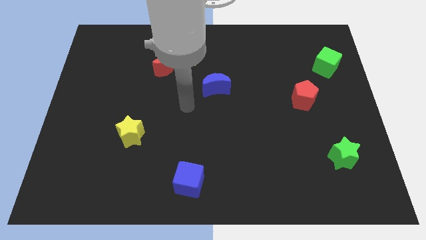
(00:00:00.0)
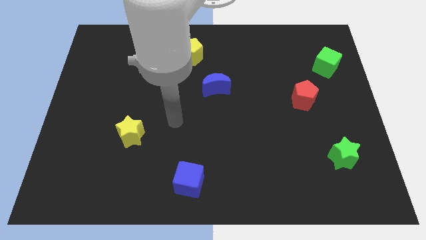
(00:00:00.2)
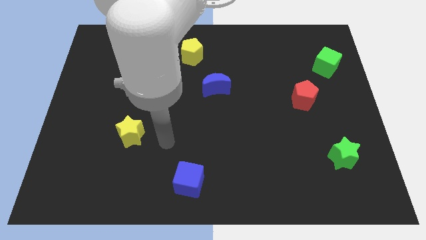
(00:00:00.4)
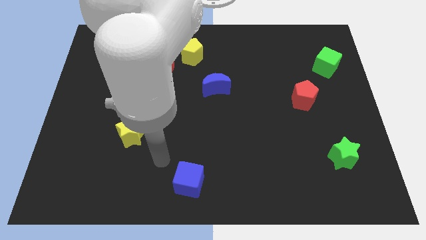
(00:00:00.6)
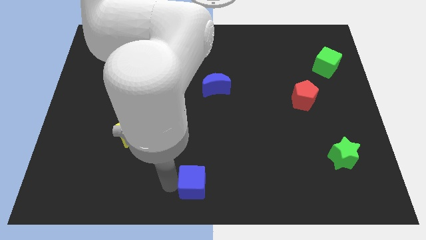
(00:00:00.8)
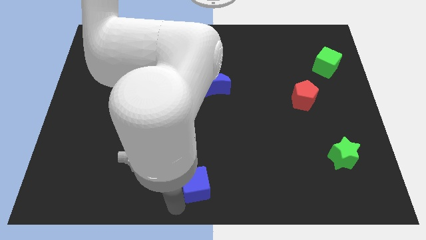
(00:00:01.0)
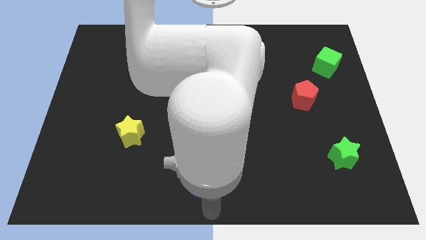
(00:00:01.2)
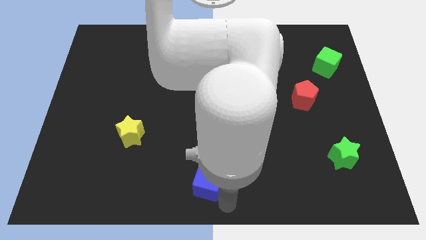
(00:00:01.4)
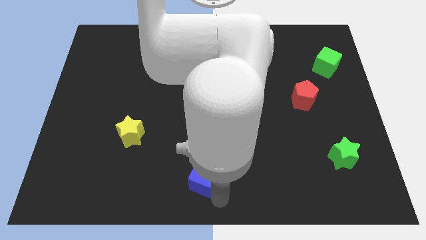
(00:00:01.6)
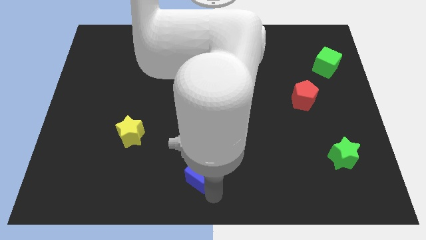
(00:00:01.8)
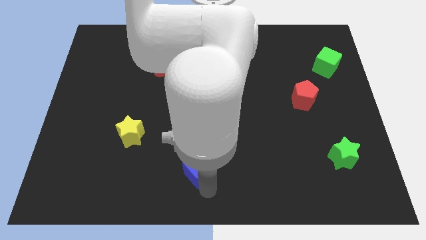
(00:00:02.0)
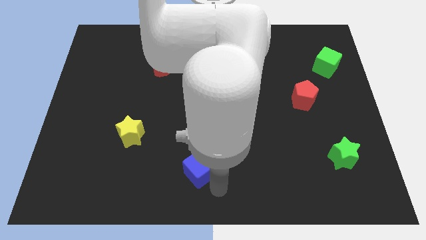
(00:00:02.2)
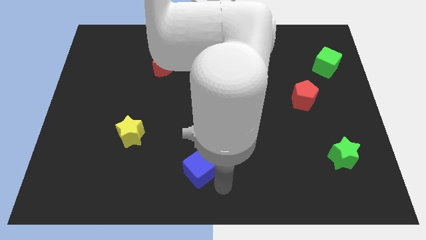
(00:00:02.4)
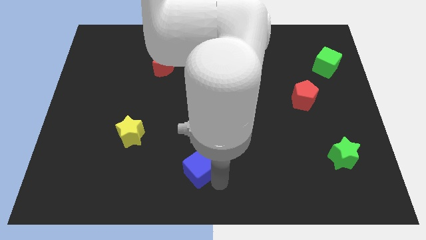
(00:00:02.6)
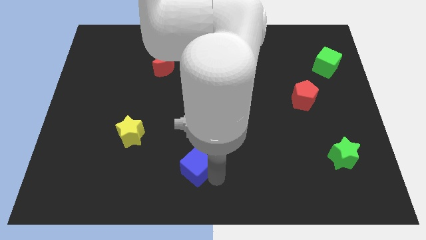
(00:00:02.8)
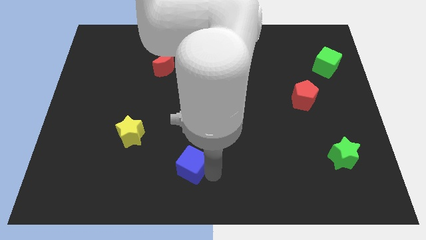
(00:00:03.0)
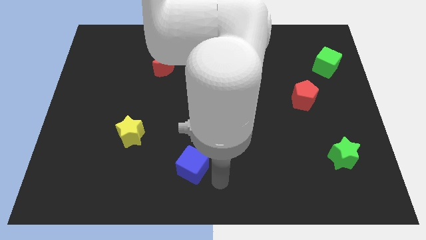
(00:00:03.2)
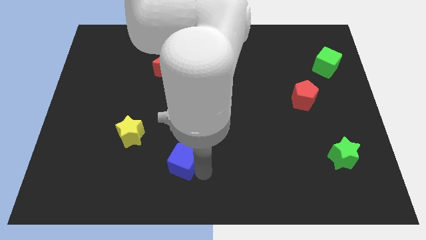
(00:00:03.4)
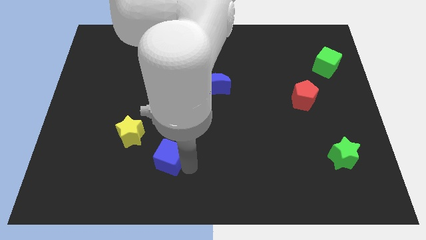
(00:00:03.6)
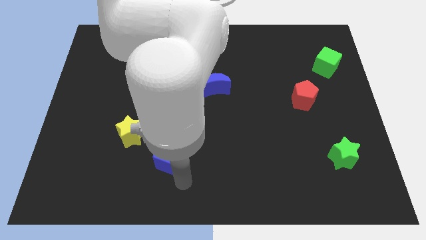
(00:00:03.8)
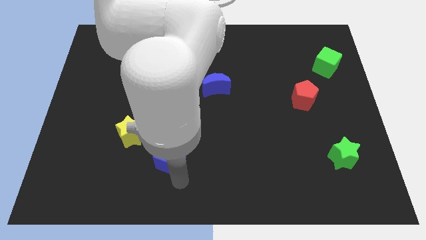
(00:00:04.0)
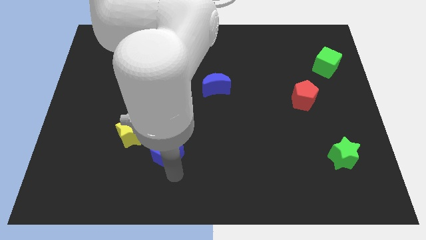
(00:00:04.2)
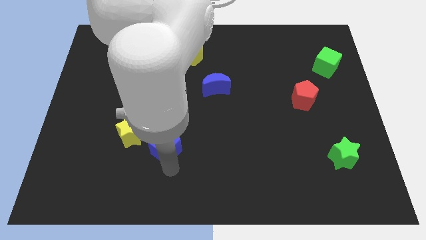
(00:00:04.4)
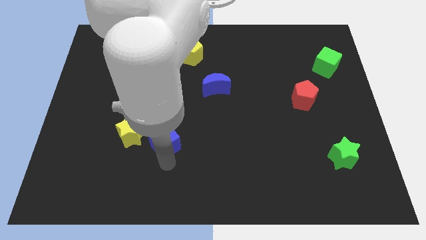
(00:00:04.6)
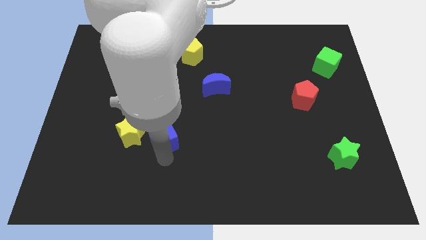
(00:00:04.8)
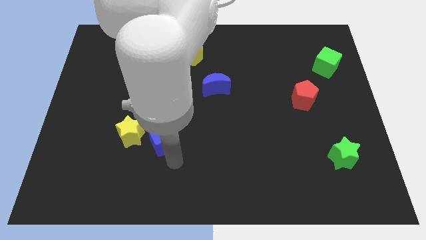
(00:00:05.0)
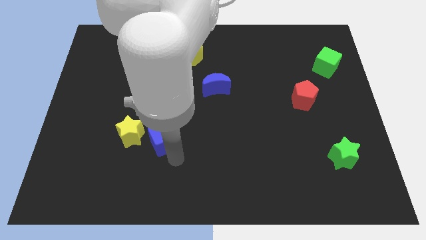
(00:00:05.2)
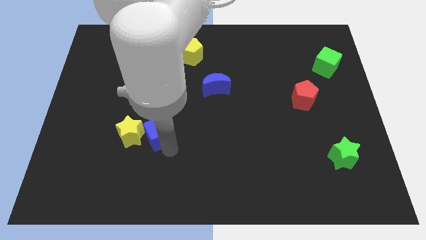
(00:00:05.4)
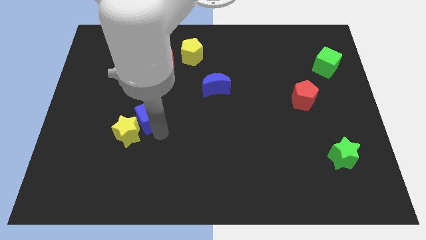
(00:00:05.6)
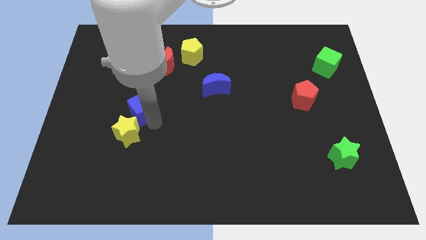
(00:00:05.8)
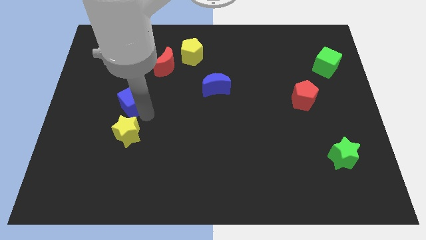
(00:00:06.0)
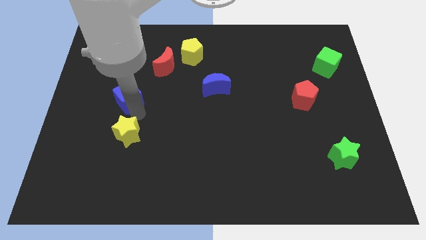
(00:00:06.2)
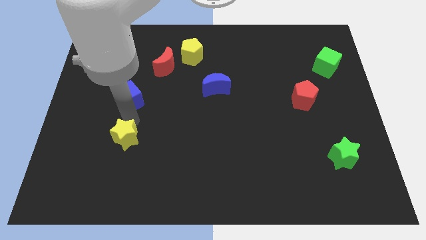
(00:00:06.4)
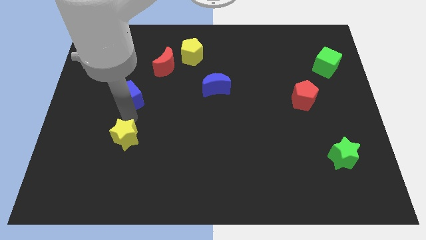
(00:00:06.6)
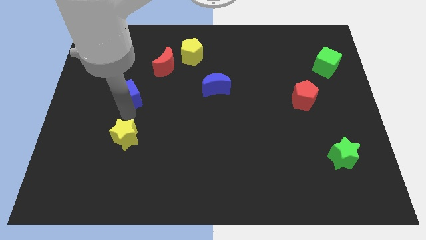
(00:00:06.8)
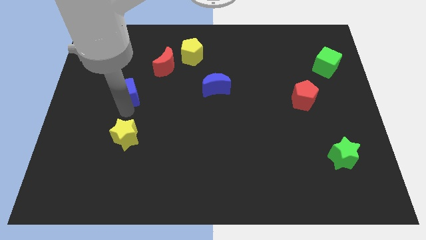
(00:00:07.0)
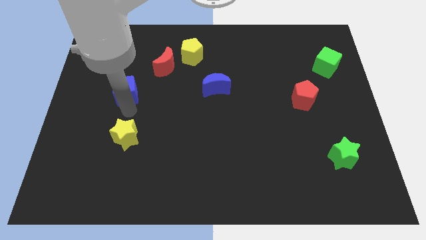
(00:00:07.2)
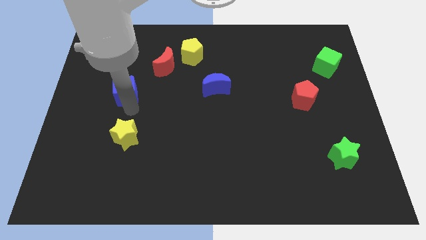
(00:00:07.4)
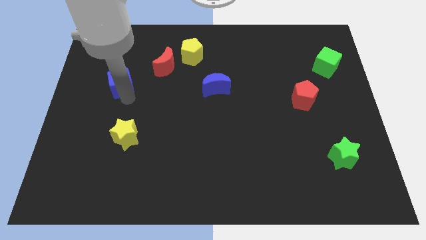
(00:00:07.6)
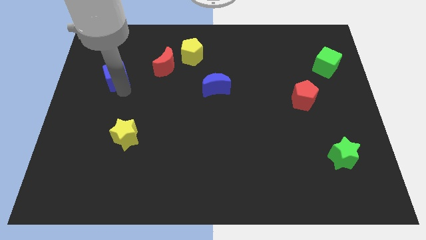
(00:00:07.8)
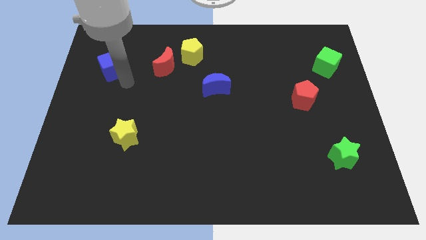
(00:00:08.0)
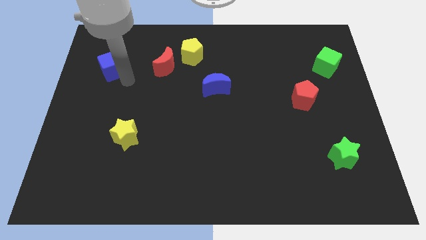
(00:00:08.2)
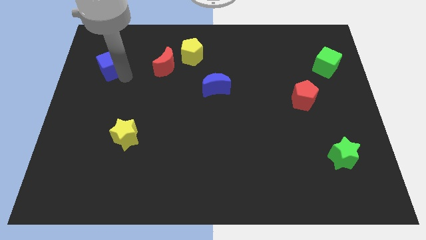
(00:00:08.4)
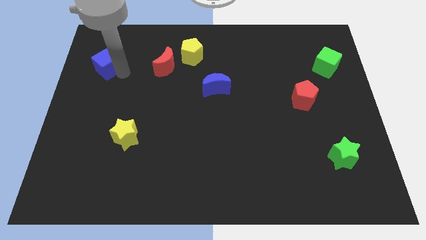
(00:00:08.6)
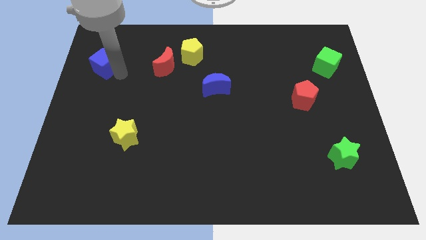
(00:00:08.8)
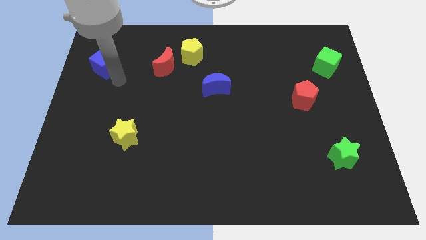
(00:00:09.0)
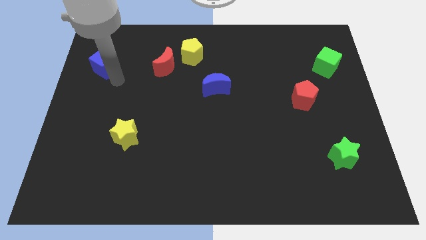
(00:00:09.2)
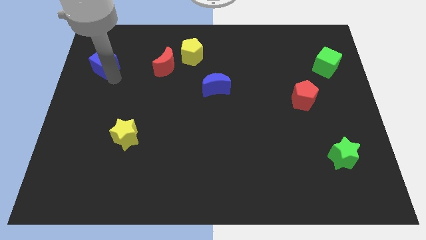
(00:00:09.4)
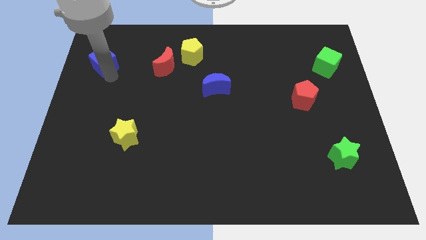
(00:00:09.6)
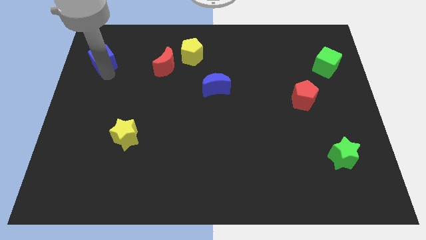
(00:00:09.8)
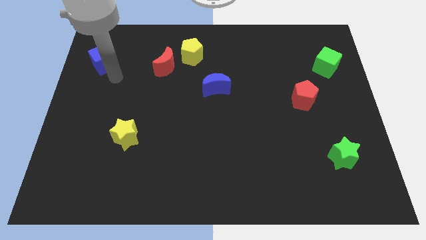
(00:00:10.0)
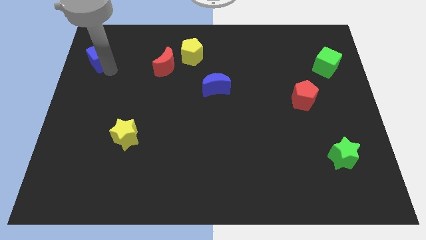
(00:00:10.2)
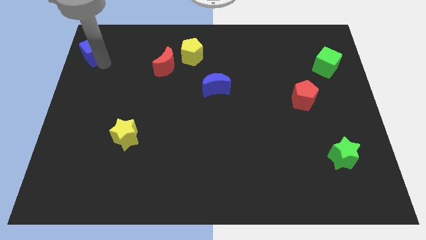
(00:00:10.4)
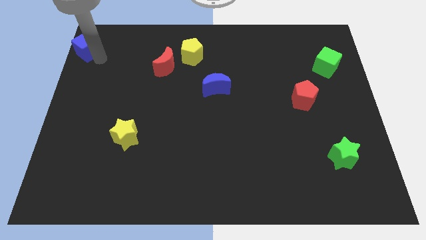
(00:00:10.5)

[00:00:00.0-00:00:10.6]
put the blue cube to the top left of the board

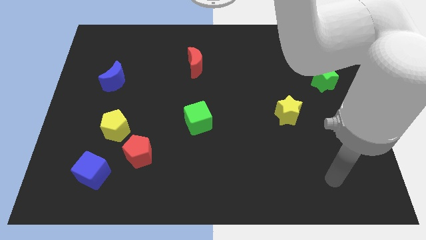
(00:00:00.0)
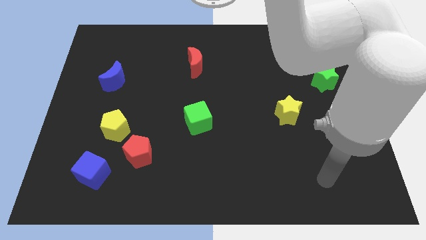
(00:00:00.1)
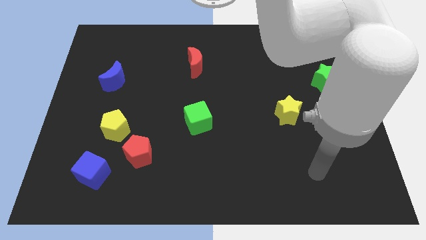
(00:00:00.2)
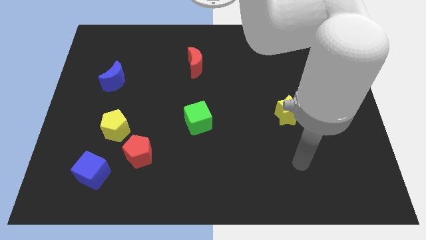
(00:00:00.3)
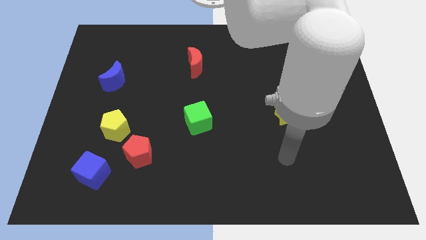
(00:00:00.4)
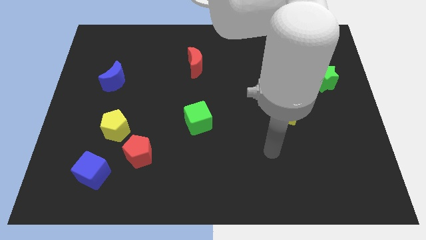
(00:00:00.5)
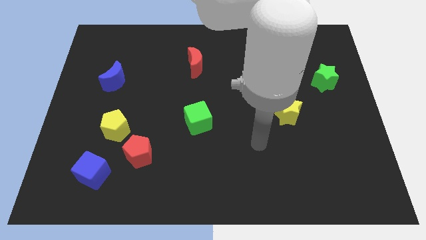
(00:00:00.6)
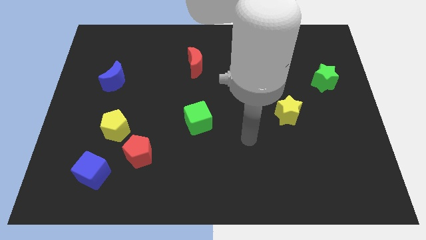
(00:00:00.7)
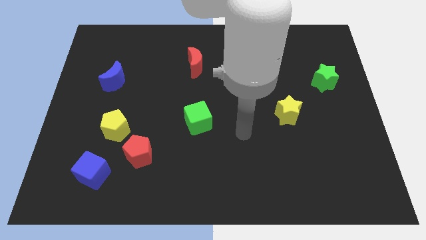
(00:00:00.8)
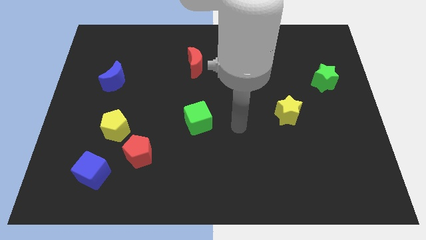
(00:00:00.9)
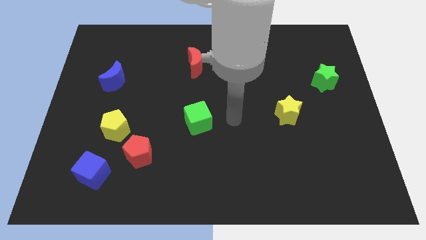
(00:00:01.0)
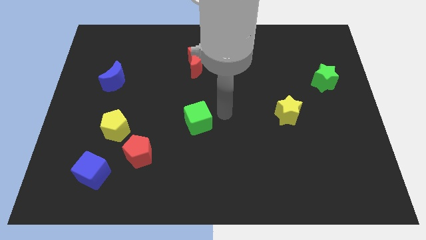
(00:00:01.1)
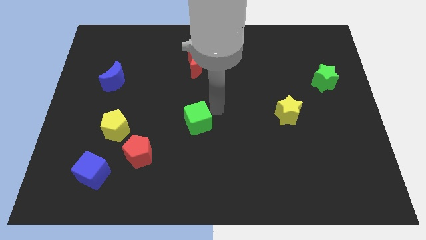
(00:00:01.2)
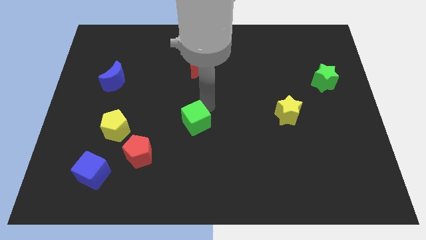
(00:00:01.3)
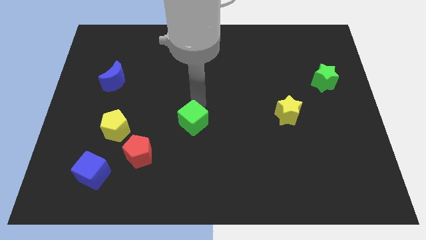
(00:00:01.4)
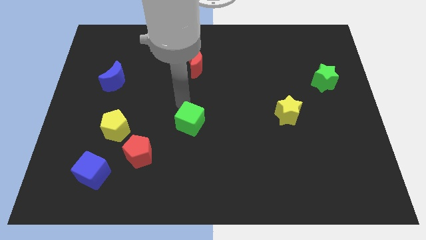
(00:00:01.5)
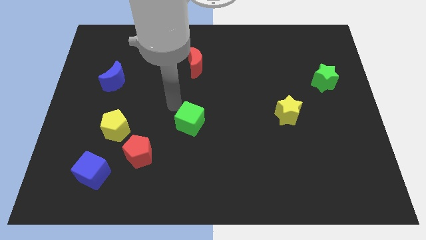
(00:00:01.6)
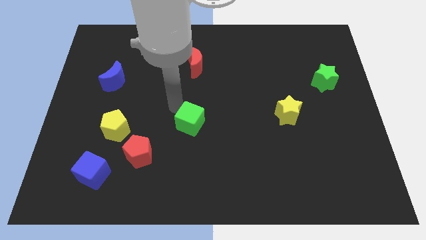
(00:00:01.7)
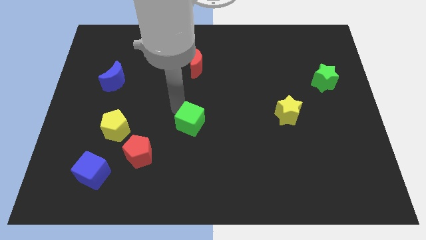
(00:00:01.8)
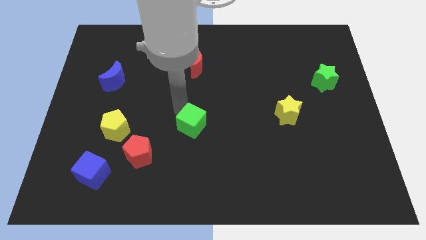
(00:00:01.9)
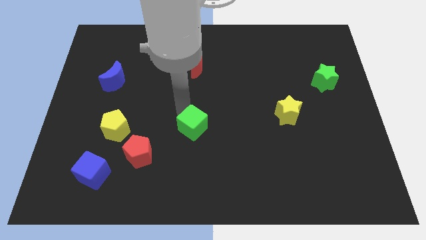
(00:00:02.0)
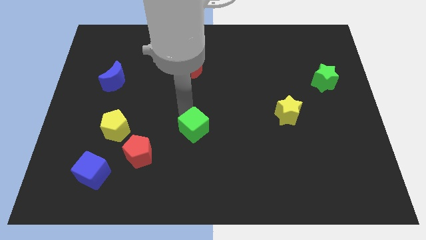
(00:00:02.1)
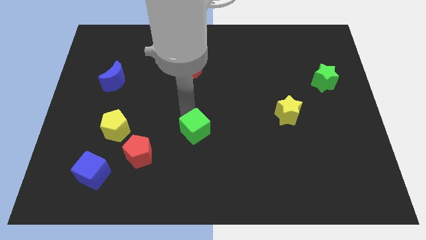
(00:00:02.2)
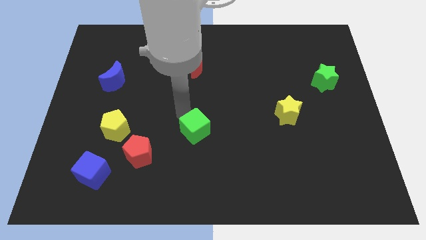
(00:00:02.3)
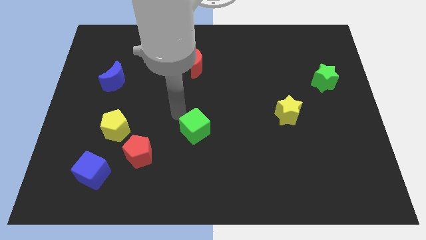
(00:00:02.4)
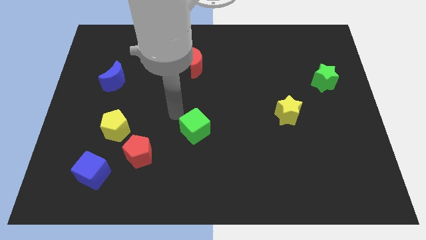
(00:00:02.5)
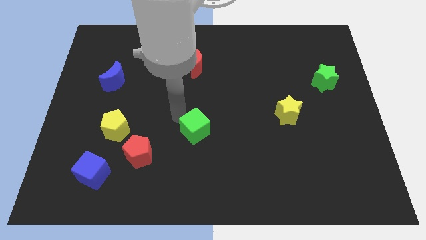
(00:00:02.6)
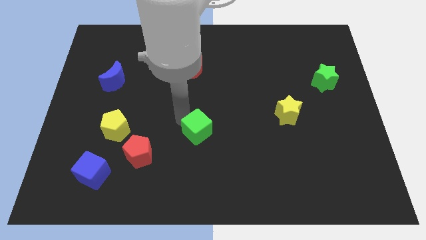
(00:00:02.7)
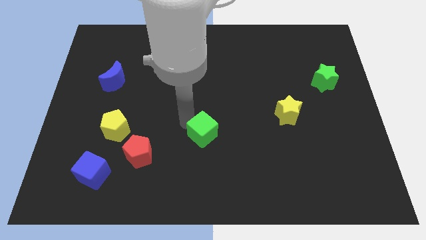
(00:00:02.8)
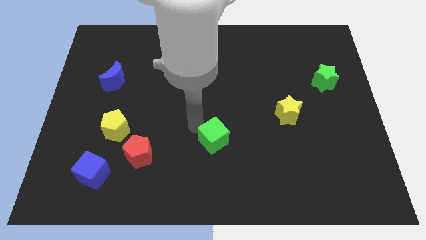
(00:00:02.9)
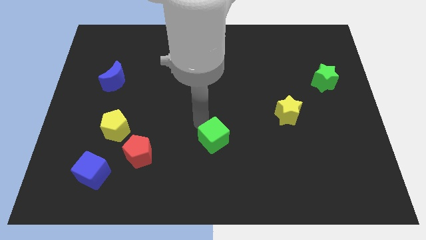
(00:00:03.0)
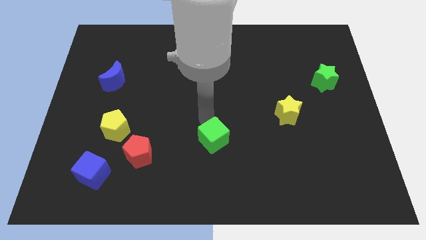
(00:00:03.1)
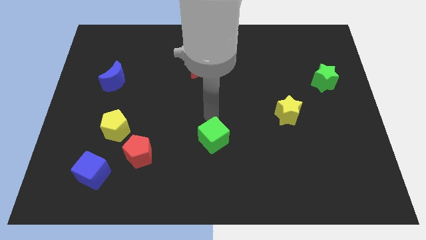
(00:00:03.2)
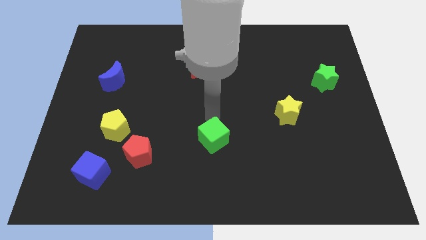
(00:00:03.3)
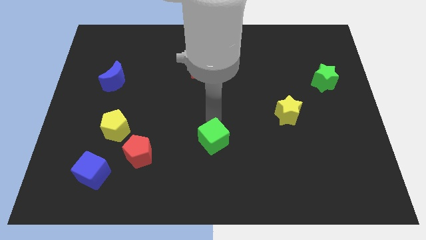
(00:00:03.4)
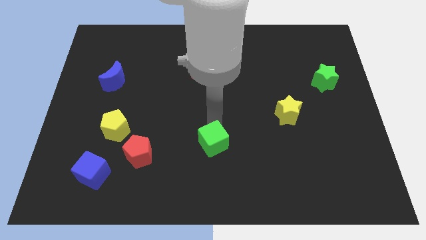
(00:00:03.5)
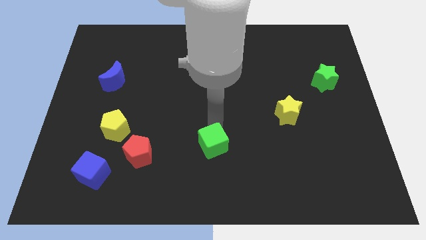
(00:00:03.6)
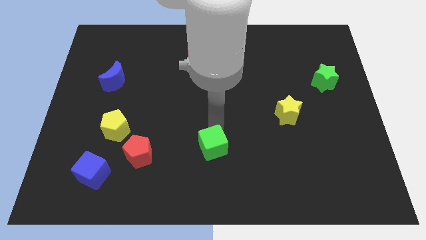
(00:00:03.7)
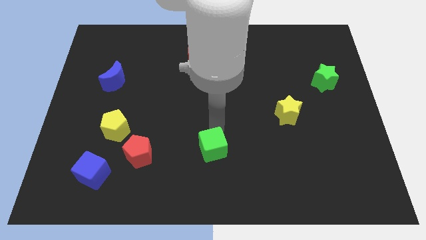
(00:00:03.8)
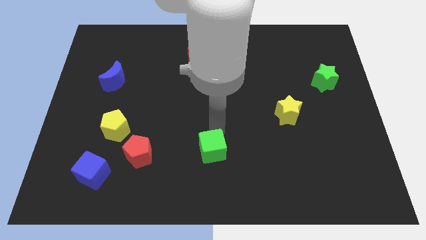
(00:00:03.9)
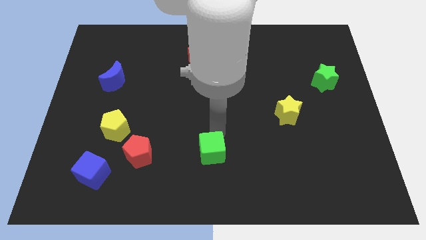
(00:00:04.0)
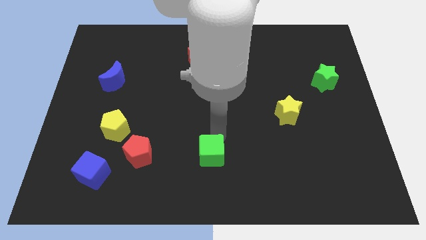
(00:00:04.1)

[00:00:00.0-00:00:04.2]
slide the green cube to the bottom
